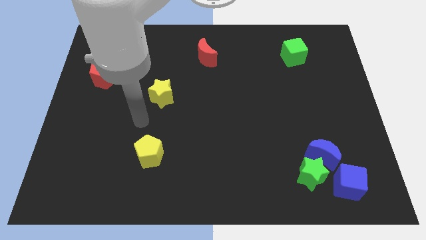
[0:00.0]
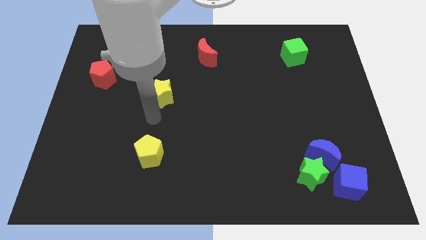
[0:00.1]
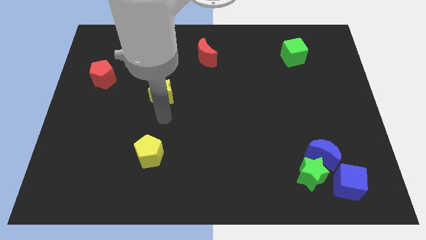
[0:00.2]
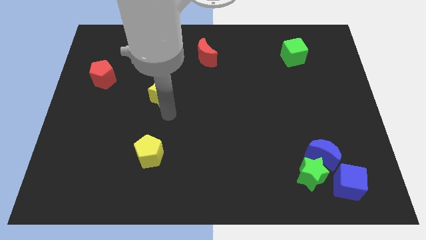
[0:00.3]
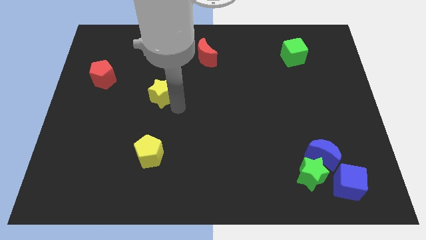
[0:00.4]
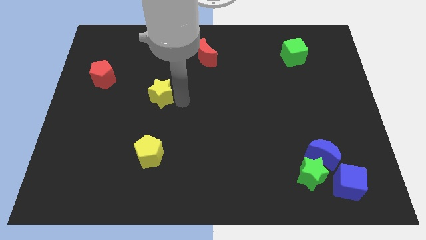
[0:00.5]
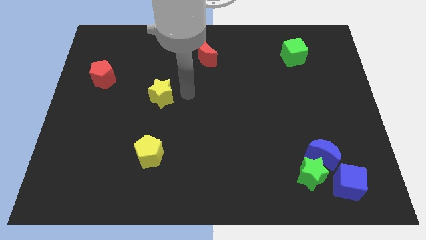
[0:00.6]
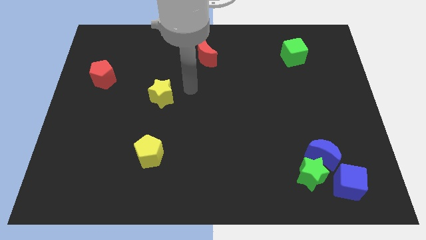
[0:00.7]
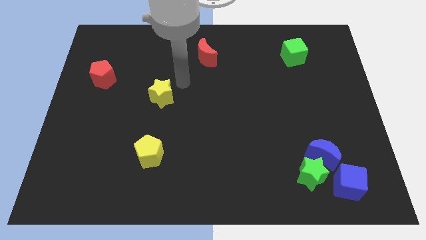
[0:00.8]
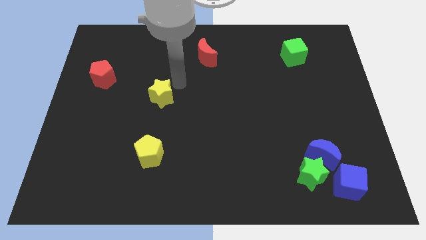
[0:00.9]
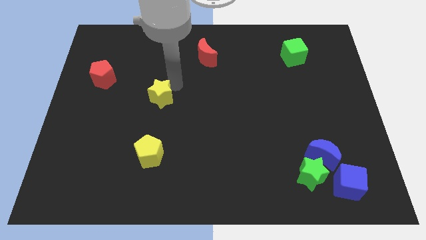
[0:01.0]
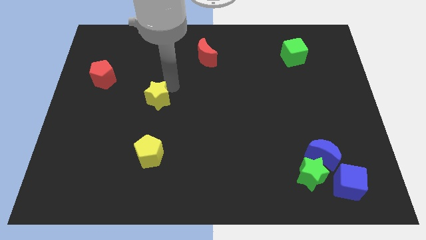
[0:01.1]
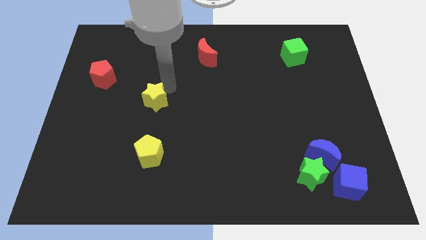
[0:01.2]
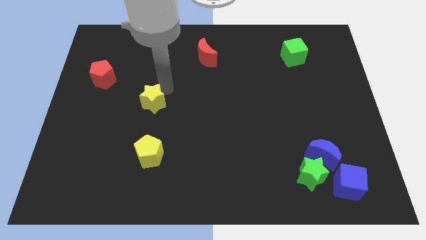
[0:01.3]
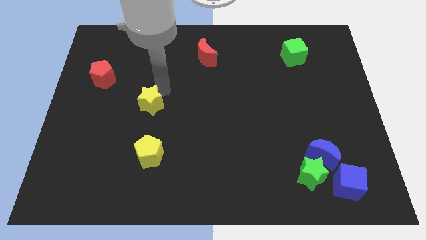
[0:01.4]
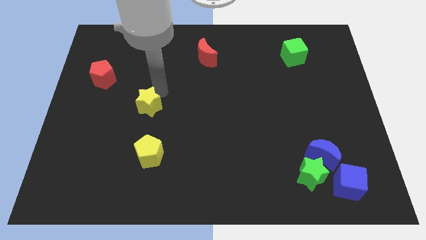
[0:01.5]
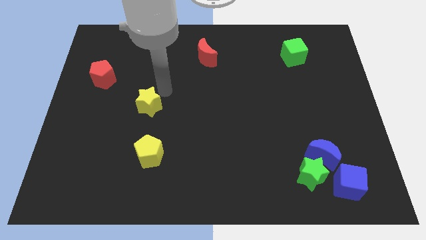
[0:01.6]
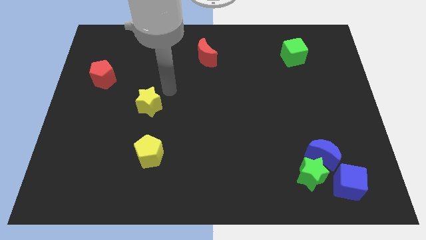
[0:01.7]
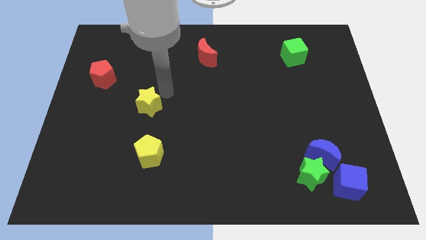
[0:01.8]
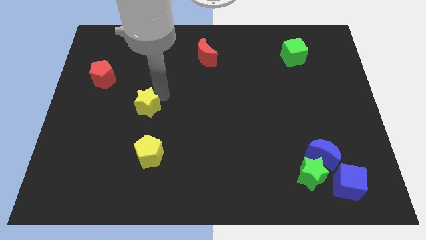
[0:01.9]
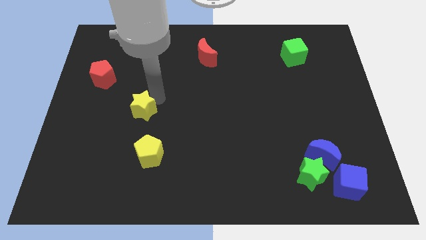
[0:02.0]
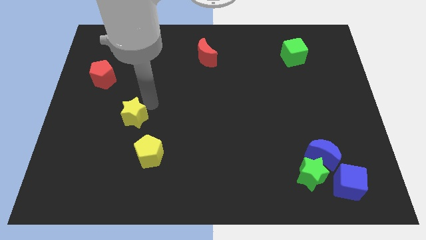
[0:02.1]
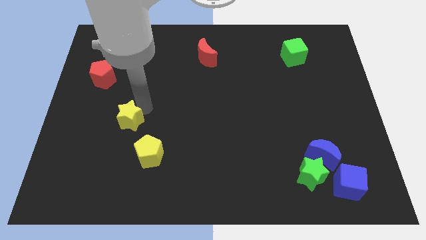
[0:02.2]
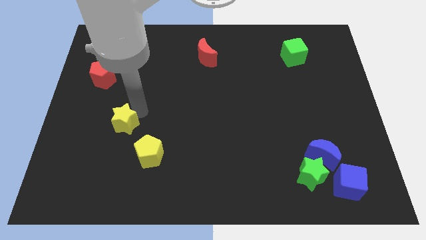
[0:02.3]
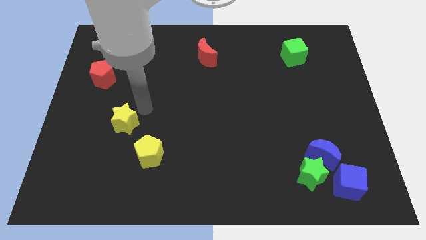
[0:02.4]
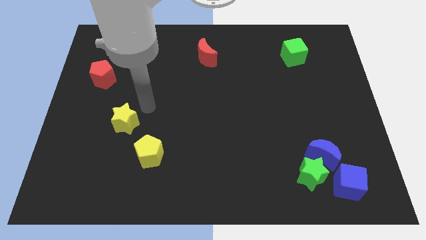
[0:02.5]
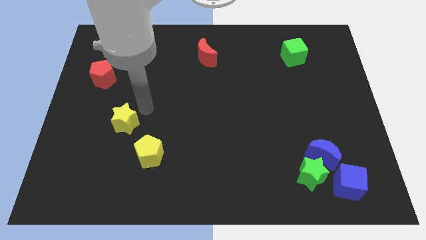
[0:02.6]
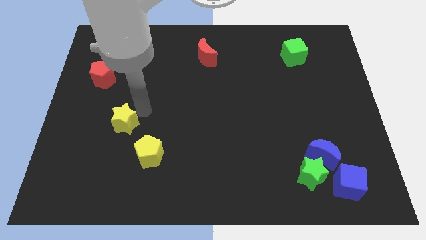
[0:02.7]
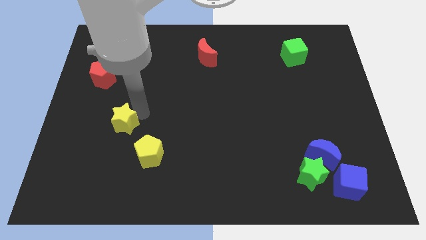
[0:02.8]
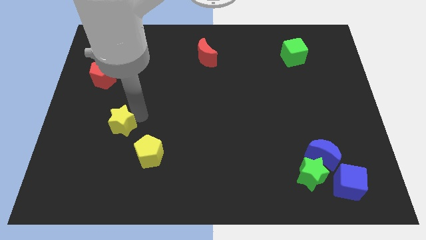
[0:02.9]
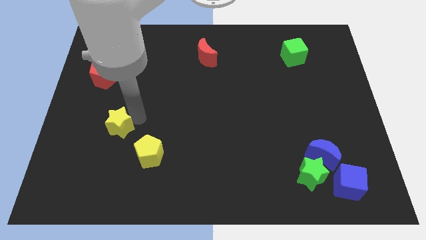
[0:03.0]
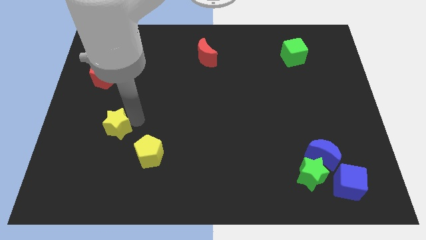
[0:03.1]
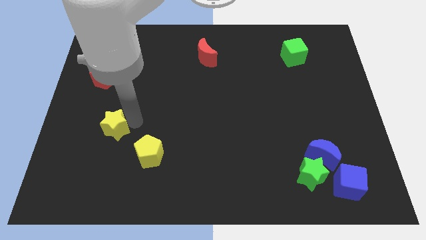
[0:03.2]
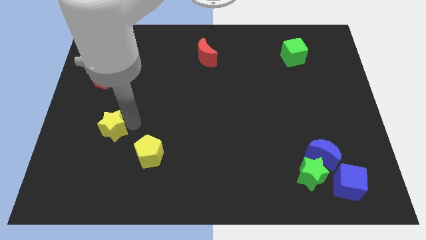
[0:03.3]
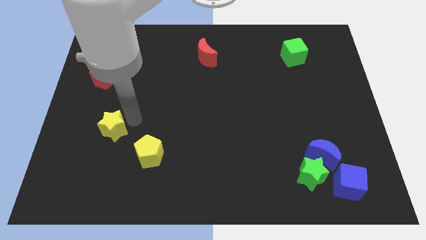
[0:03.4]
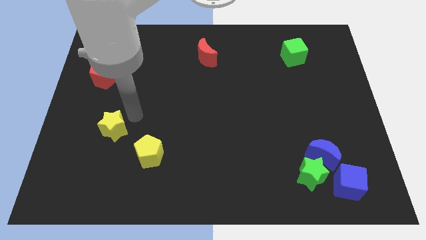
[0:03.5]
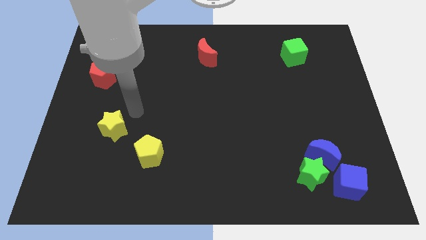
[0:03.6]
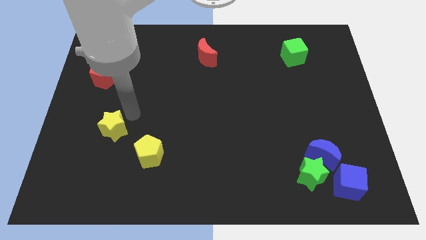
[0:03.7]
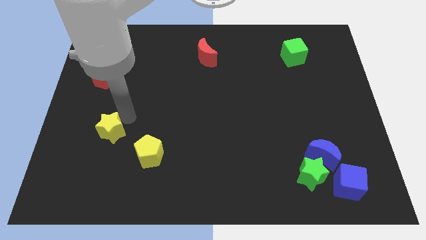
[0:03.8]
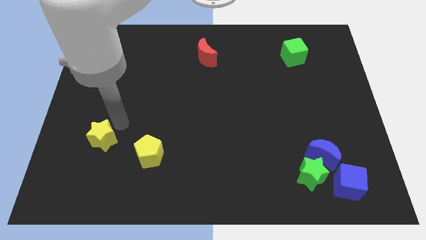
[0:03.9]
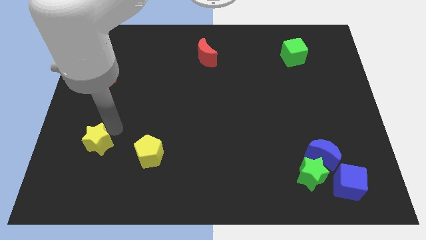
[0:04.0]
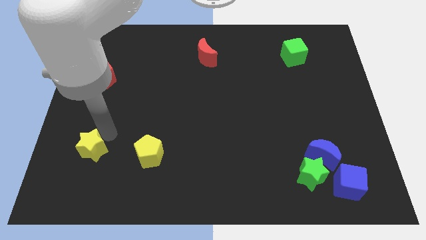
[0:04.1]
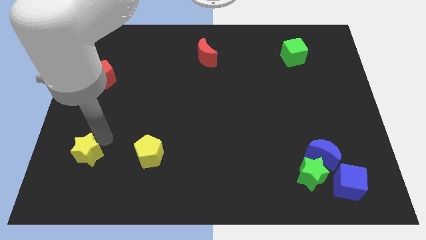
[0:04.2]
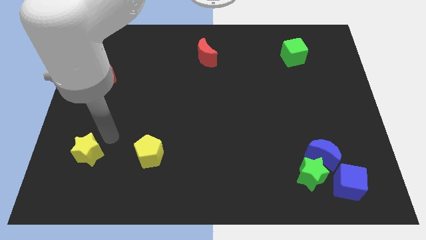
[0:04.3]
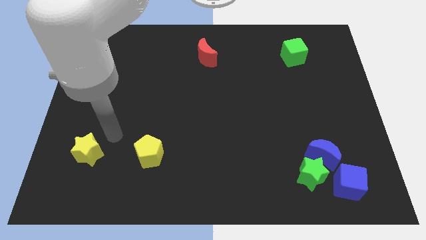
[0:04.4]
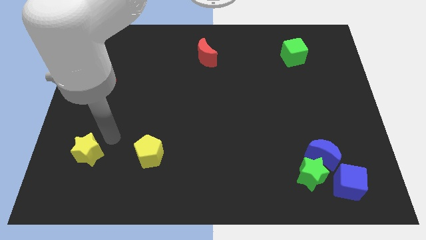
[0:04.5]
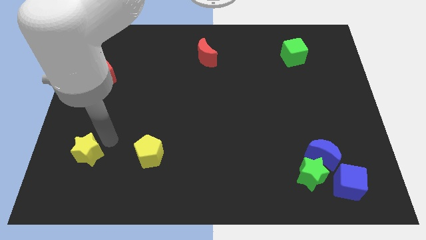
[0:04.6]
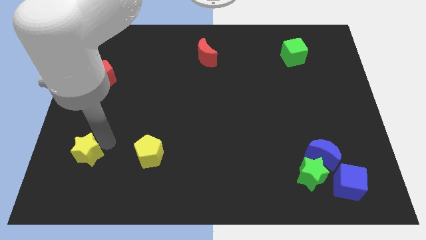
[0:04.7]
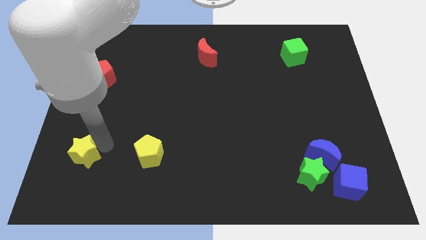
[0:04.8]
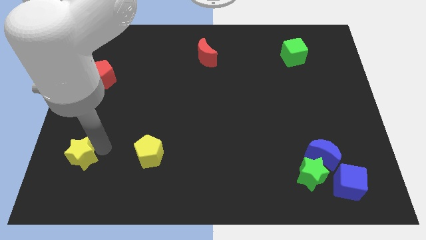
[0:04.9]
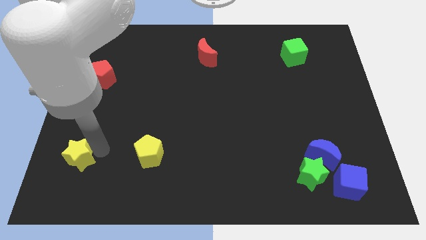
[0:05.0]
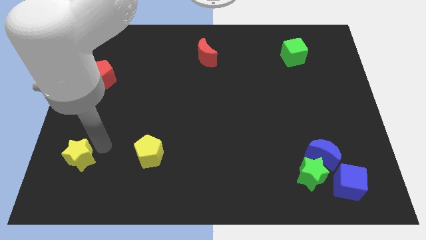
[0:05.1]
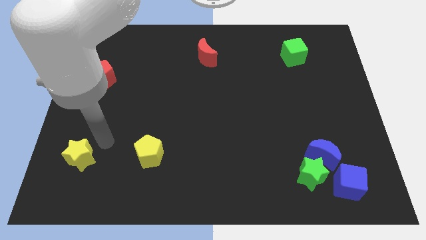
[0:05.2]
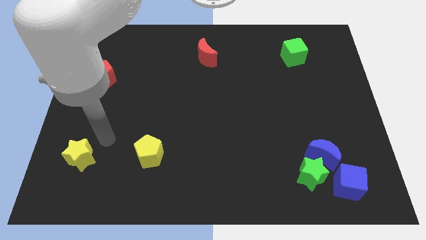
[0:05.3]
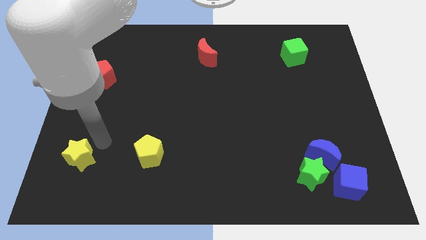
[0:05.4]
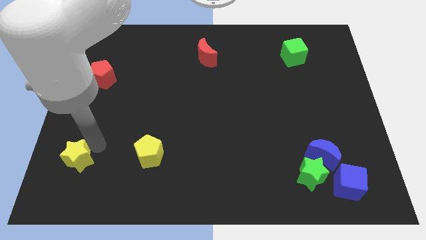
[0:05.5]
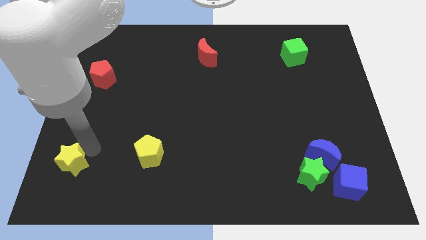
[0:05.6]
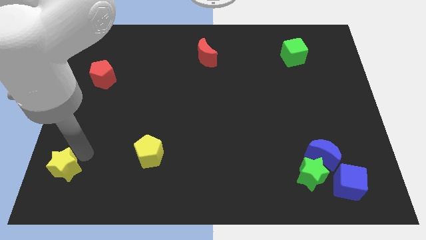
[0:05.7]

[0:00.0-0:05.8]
push the yellow star to the lower left corner
